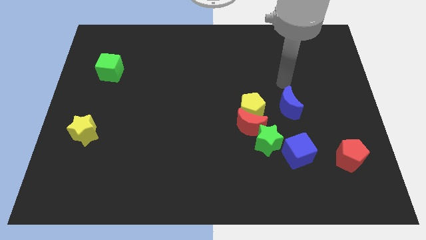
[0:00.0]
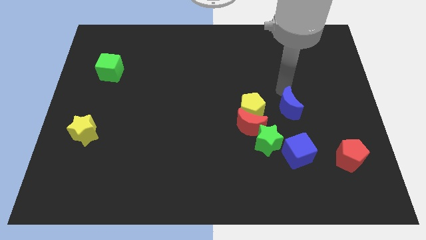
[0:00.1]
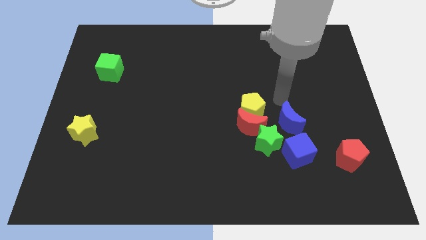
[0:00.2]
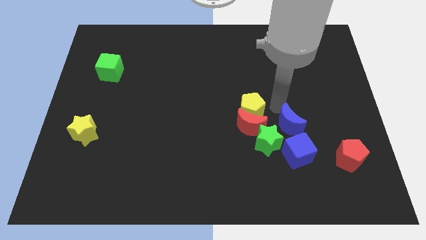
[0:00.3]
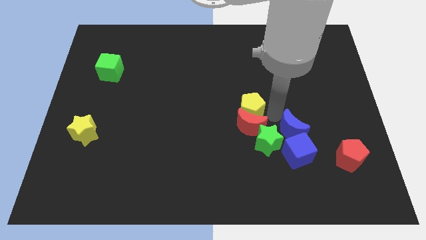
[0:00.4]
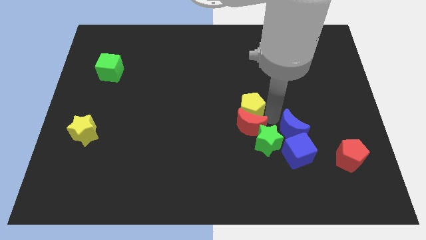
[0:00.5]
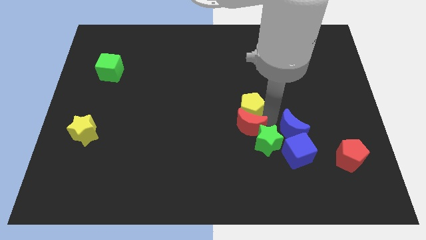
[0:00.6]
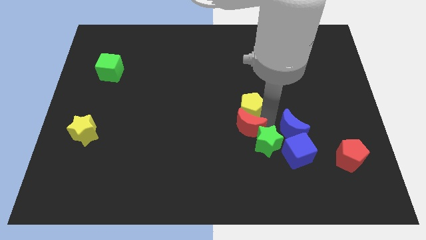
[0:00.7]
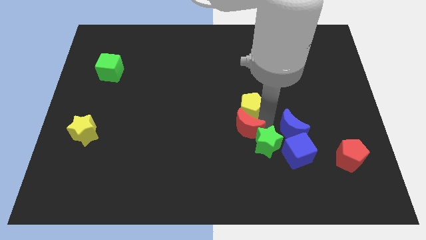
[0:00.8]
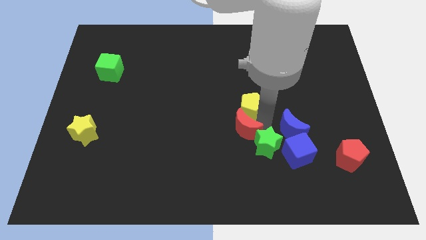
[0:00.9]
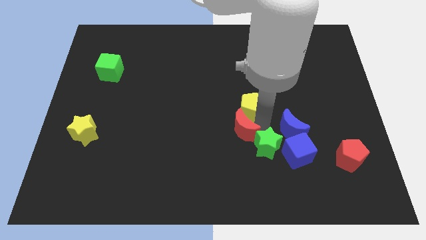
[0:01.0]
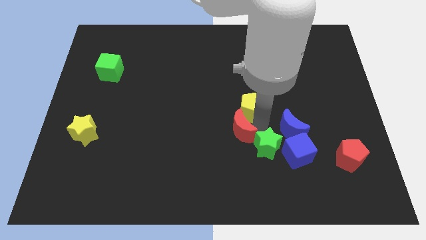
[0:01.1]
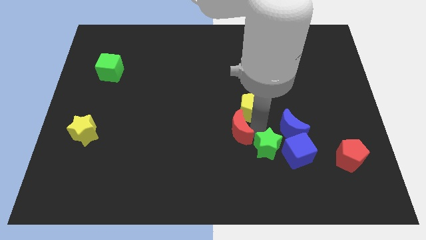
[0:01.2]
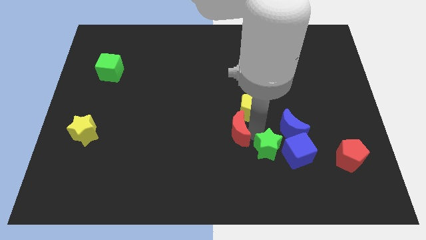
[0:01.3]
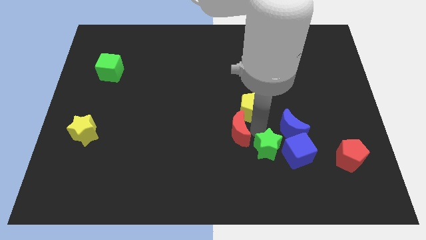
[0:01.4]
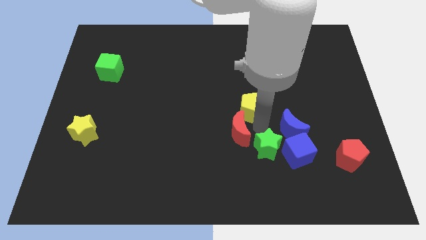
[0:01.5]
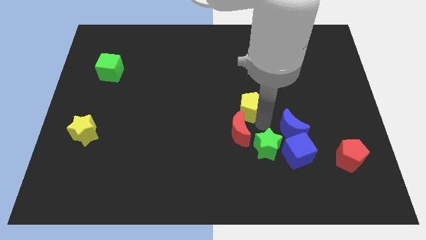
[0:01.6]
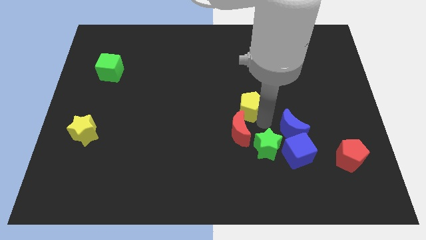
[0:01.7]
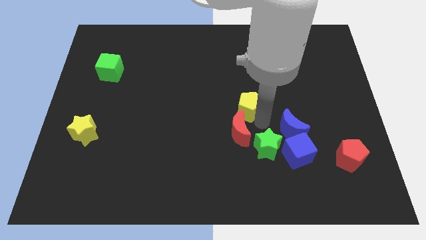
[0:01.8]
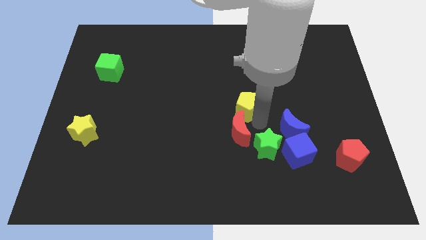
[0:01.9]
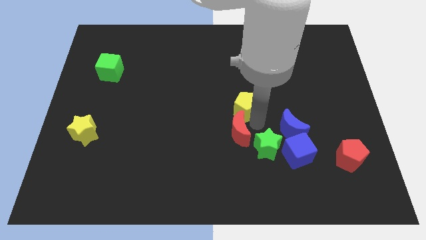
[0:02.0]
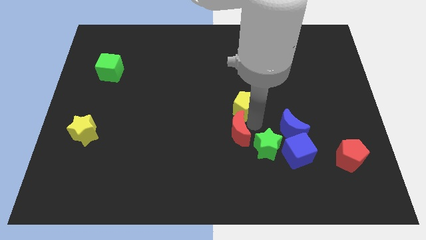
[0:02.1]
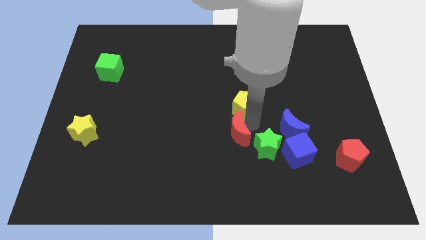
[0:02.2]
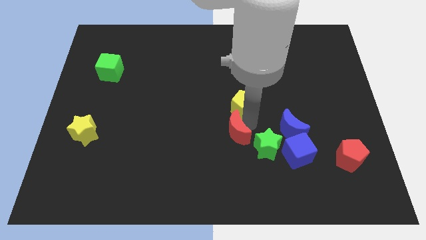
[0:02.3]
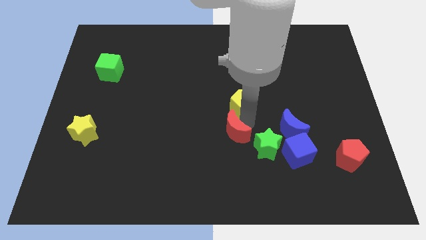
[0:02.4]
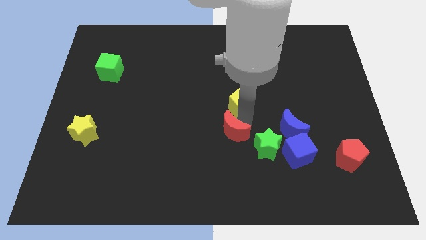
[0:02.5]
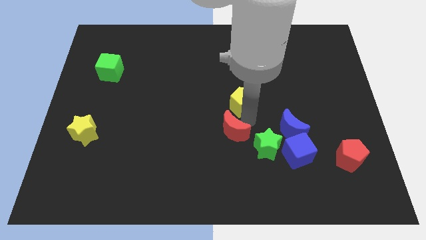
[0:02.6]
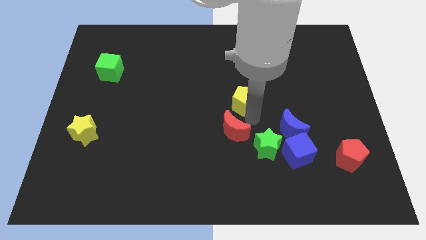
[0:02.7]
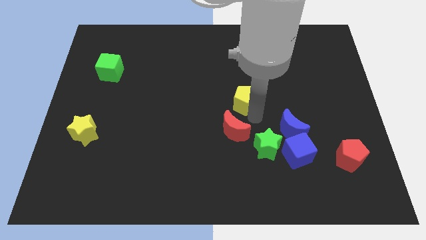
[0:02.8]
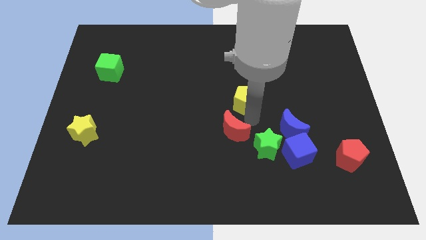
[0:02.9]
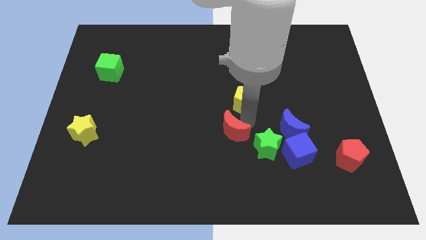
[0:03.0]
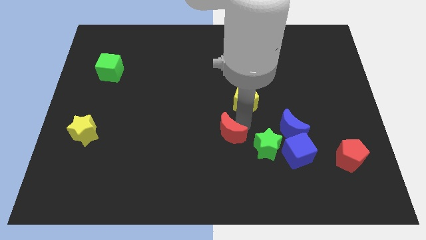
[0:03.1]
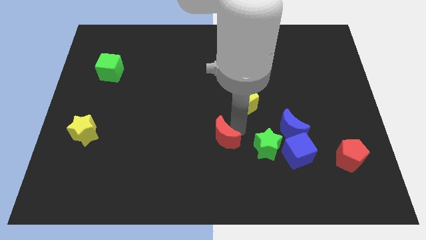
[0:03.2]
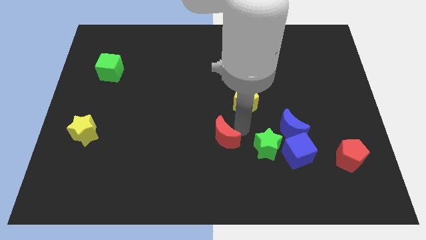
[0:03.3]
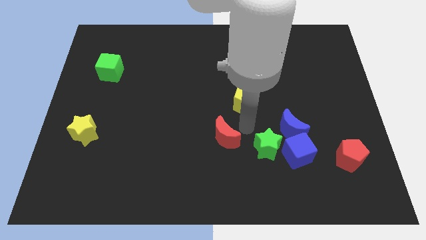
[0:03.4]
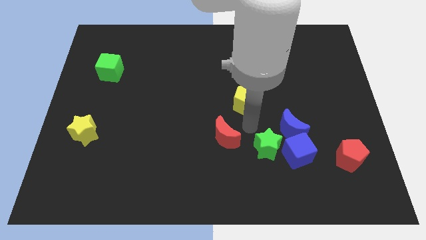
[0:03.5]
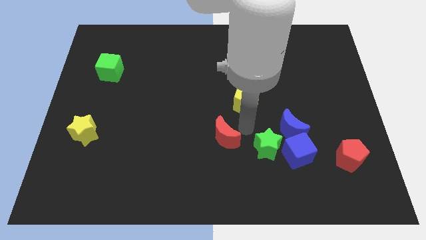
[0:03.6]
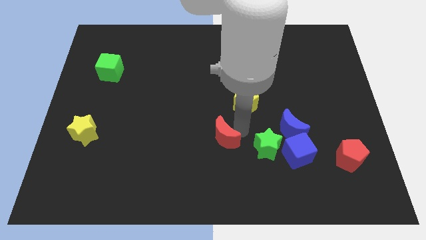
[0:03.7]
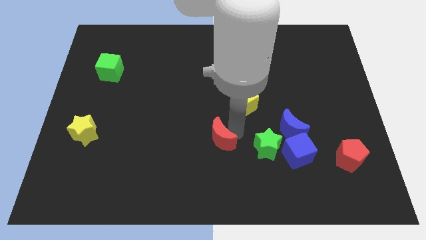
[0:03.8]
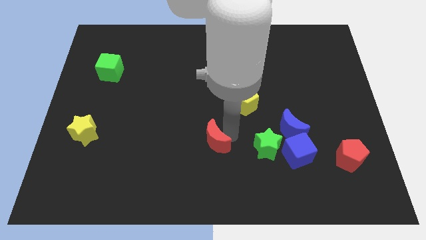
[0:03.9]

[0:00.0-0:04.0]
separate the red moon from the yellow pentagon and green star

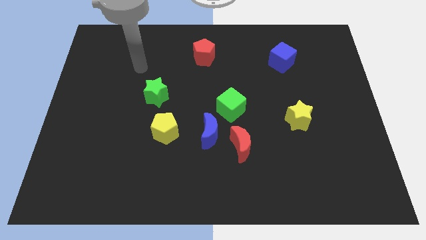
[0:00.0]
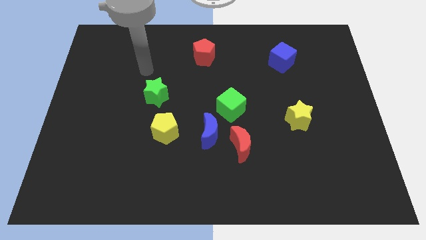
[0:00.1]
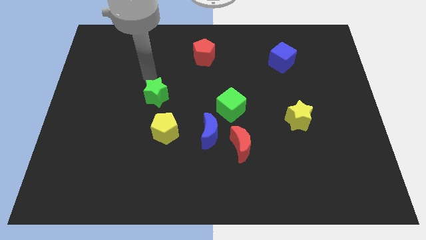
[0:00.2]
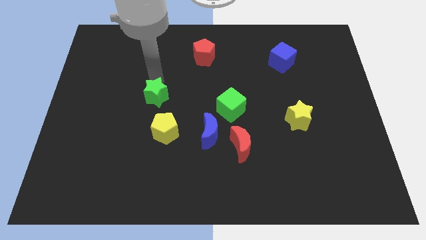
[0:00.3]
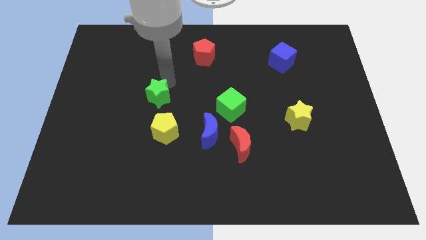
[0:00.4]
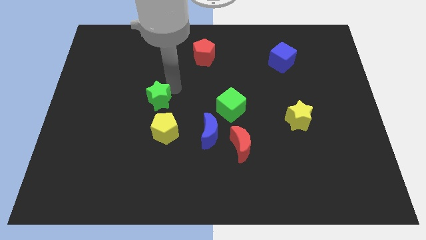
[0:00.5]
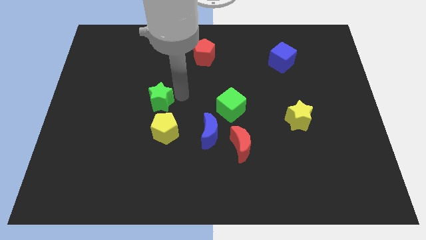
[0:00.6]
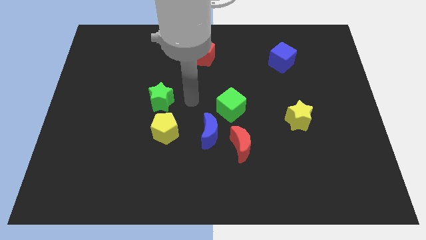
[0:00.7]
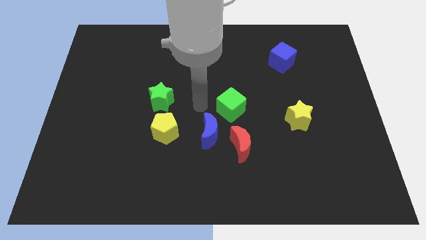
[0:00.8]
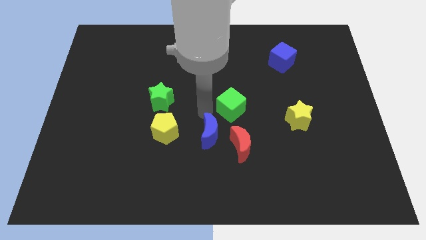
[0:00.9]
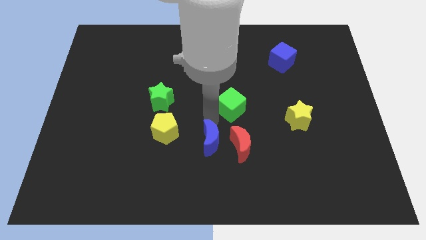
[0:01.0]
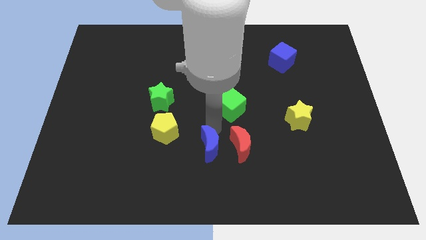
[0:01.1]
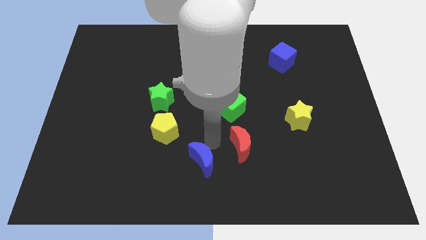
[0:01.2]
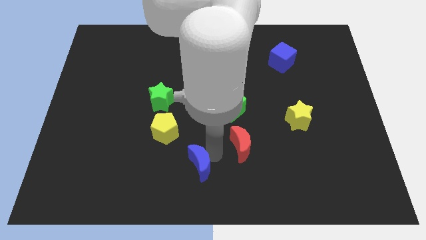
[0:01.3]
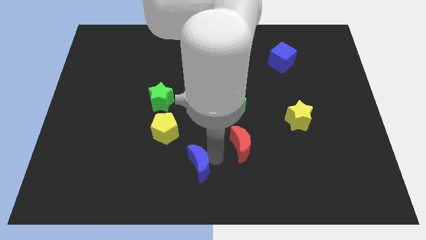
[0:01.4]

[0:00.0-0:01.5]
separate the red moon from the blue moon

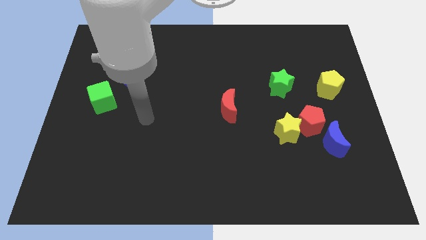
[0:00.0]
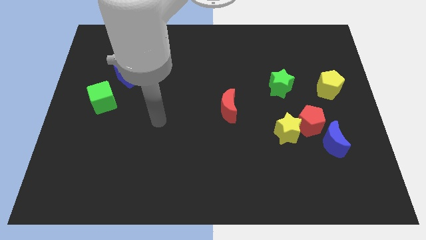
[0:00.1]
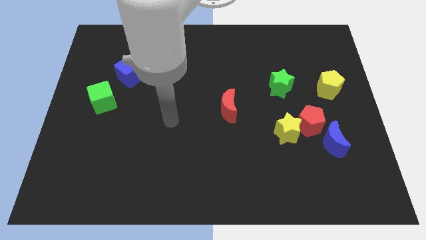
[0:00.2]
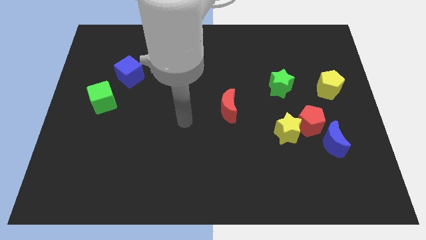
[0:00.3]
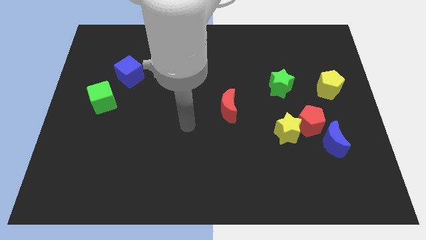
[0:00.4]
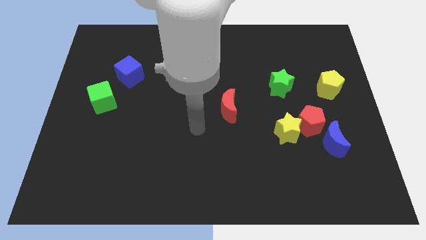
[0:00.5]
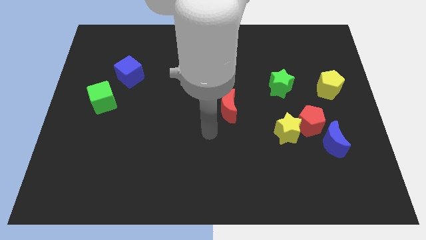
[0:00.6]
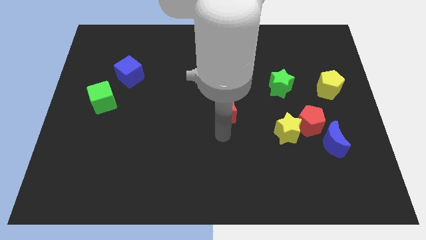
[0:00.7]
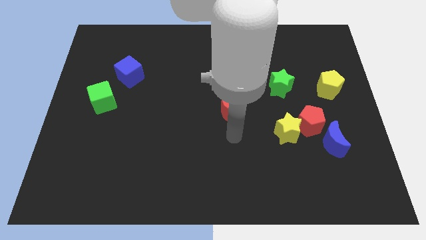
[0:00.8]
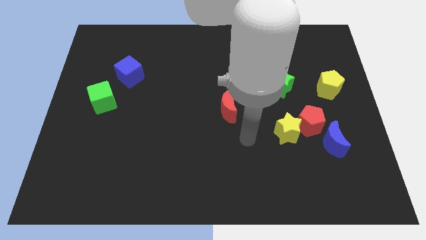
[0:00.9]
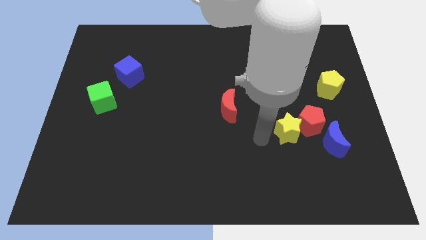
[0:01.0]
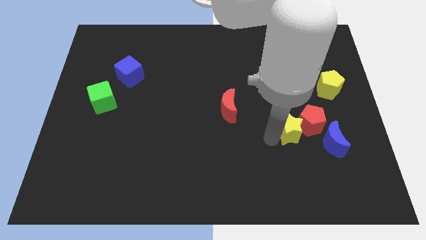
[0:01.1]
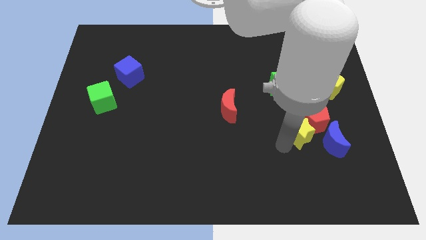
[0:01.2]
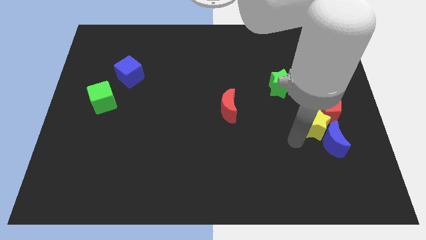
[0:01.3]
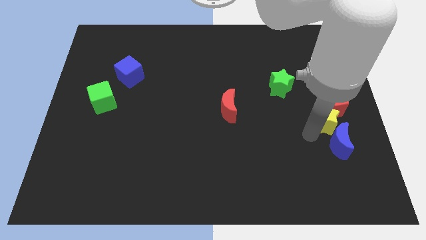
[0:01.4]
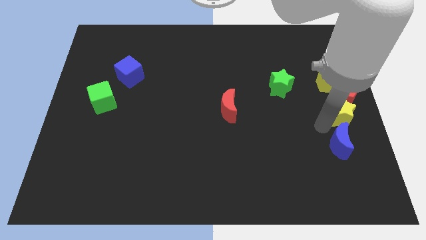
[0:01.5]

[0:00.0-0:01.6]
separate the red pentagon from the yellow star and blue moon

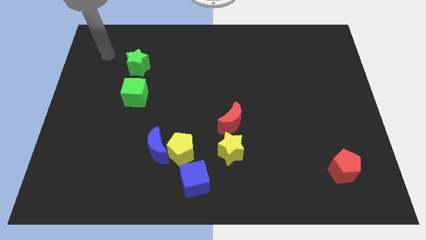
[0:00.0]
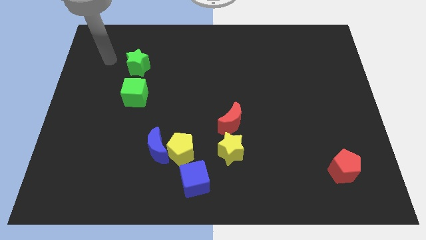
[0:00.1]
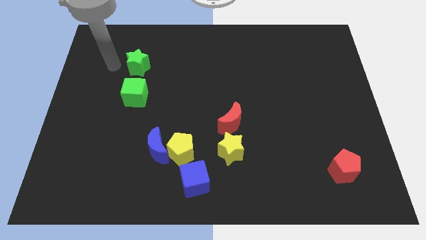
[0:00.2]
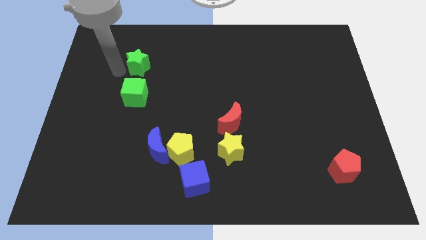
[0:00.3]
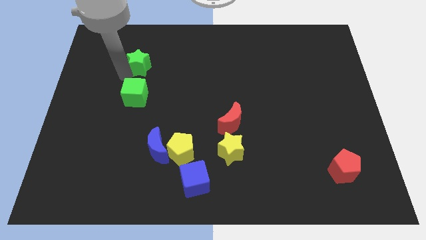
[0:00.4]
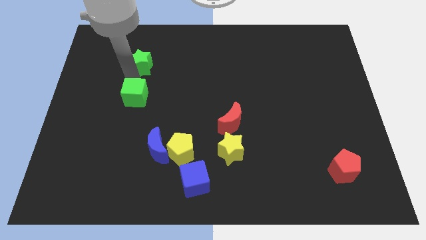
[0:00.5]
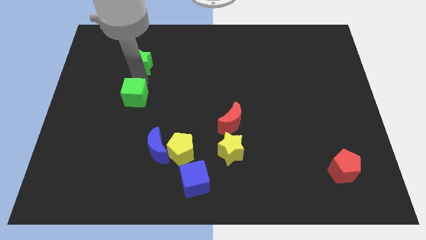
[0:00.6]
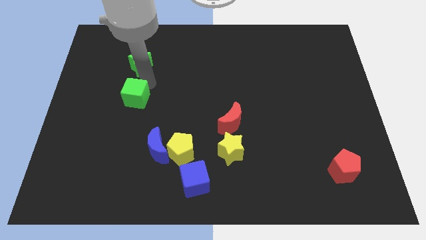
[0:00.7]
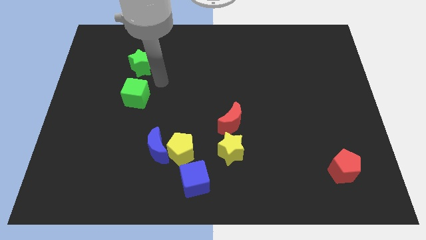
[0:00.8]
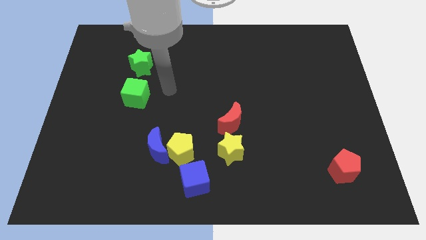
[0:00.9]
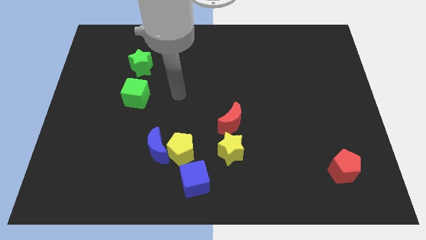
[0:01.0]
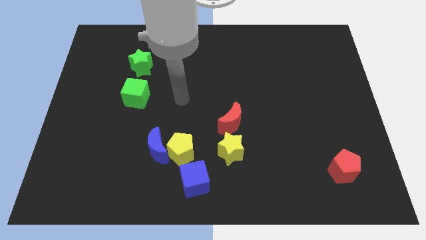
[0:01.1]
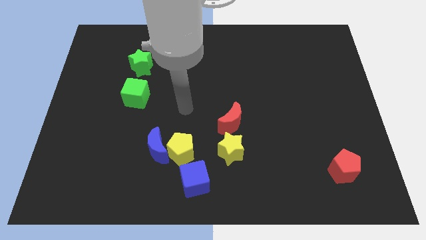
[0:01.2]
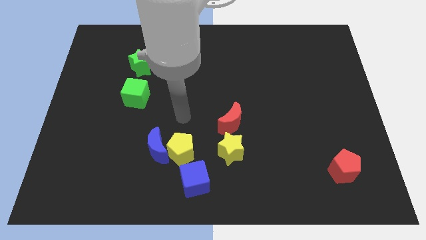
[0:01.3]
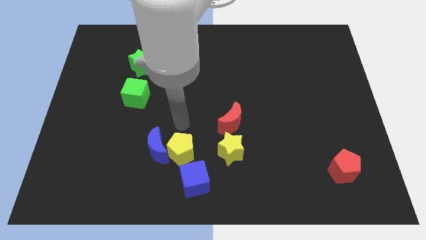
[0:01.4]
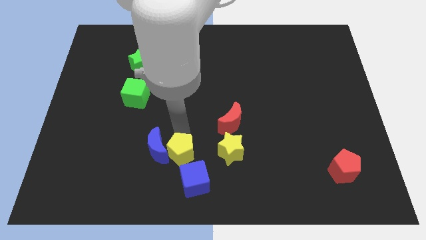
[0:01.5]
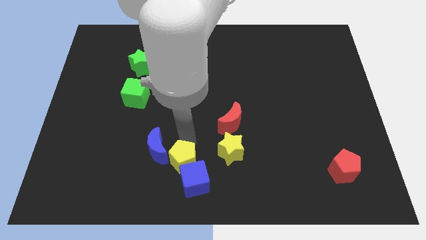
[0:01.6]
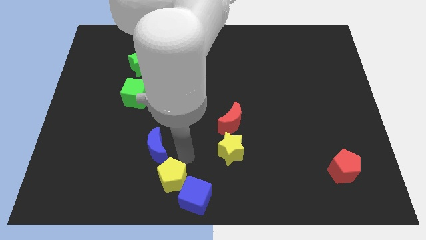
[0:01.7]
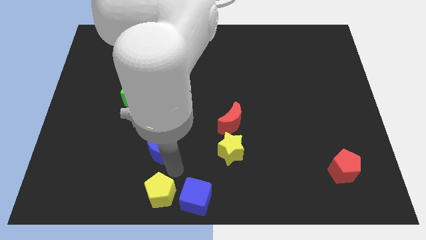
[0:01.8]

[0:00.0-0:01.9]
move the blue moon away from the yellow pentagon

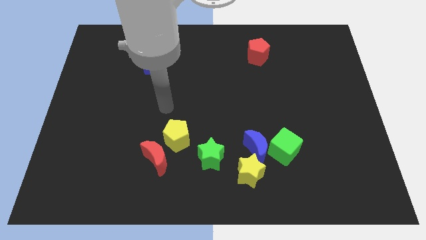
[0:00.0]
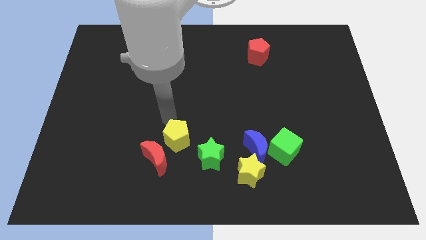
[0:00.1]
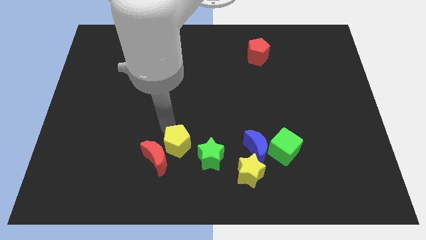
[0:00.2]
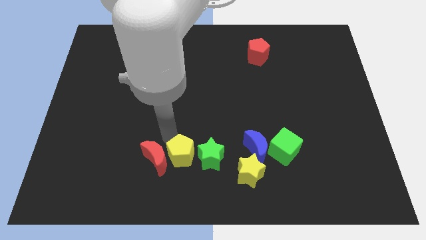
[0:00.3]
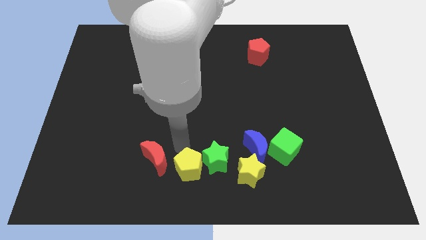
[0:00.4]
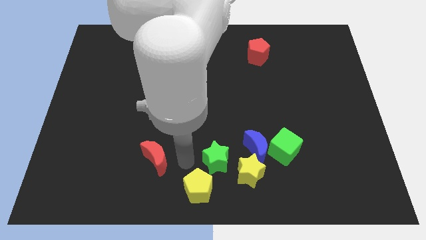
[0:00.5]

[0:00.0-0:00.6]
move the red moon away from the yellow pentagon
